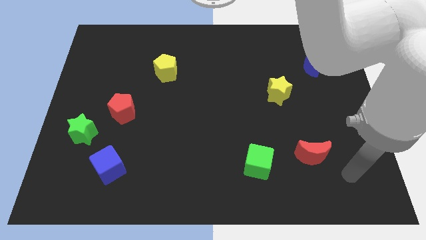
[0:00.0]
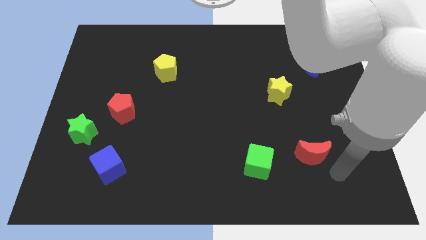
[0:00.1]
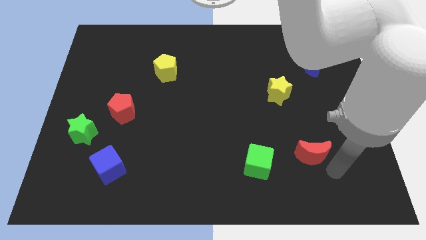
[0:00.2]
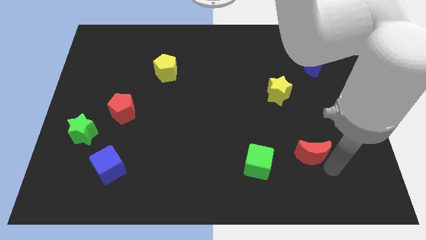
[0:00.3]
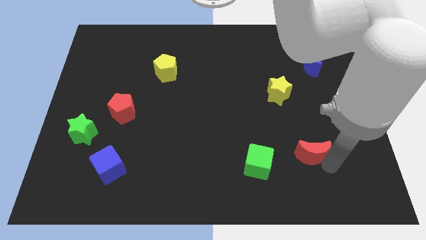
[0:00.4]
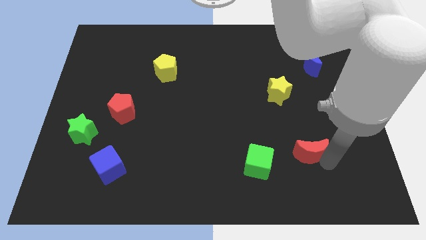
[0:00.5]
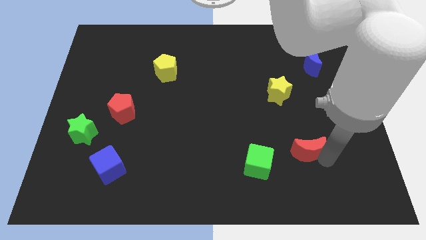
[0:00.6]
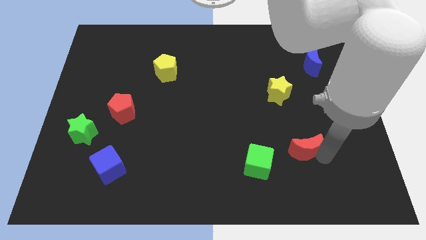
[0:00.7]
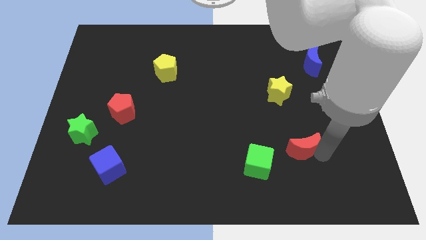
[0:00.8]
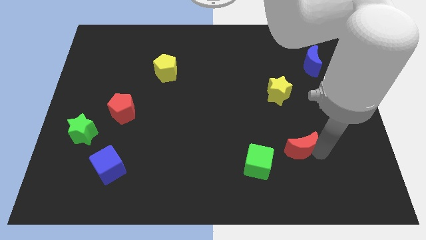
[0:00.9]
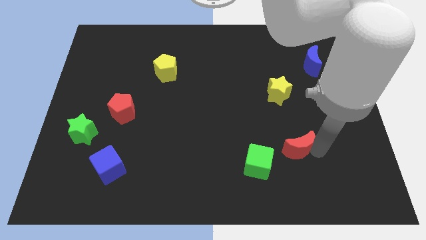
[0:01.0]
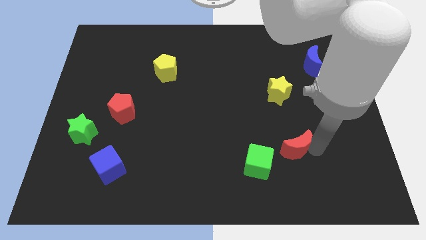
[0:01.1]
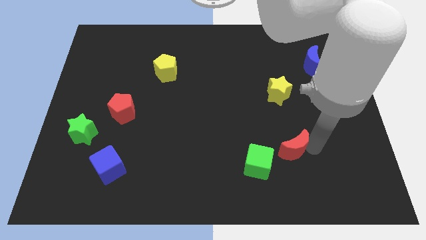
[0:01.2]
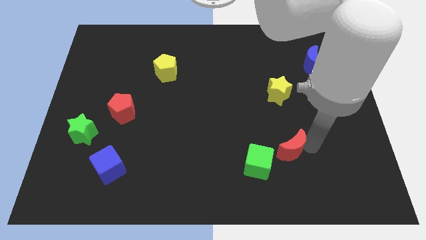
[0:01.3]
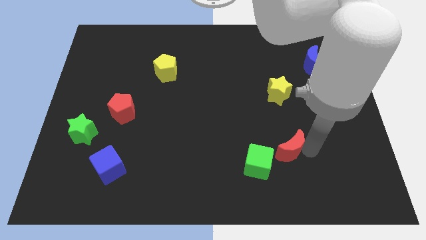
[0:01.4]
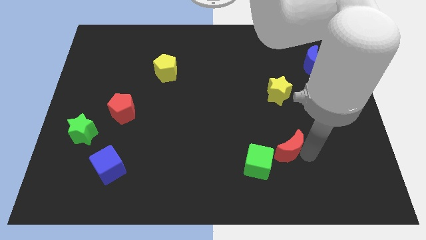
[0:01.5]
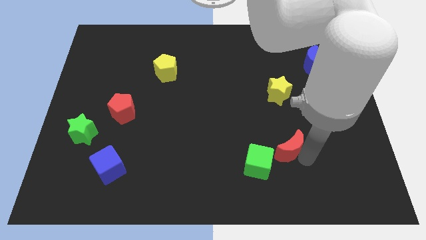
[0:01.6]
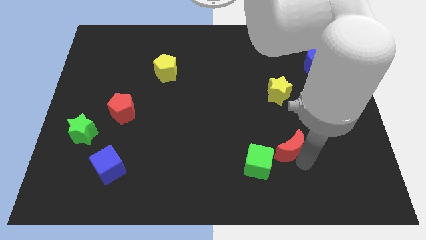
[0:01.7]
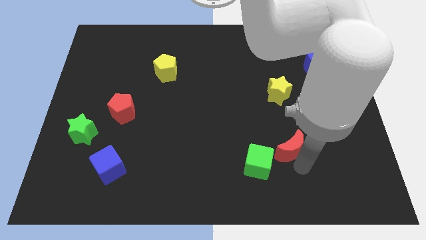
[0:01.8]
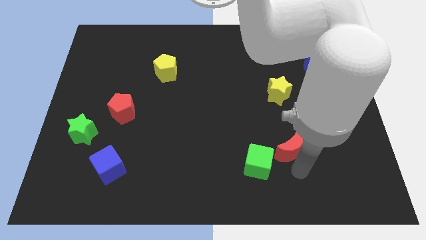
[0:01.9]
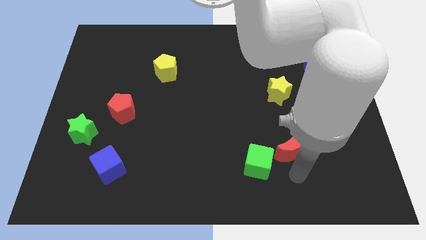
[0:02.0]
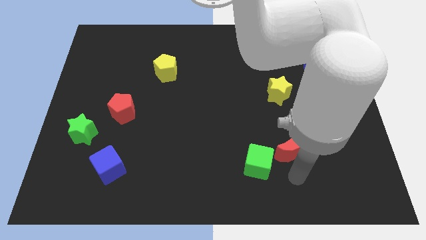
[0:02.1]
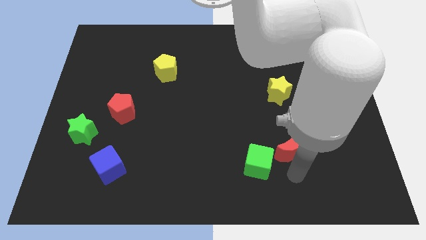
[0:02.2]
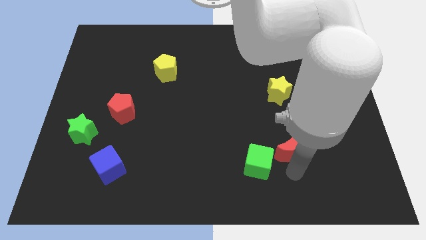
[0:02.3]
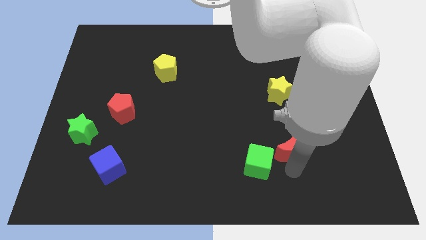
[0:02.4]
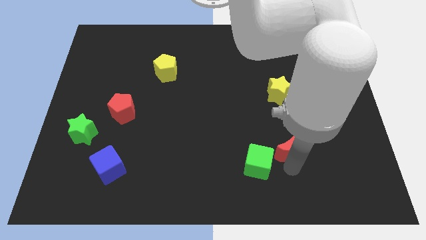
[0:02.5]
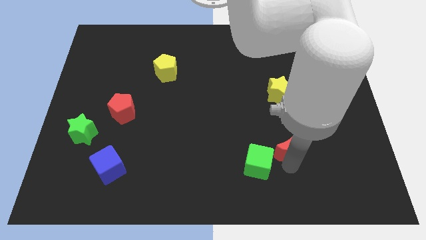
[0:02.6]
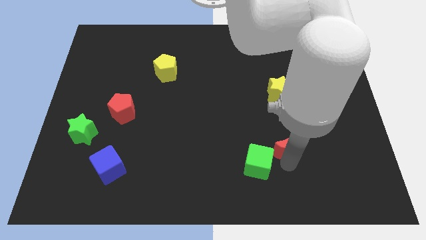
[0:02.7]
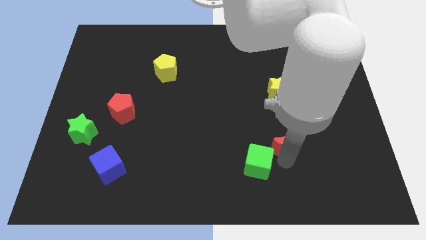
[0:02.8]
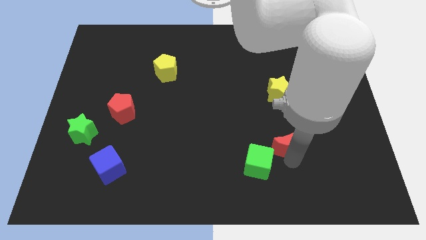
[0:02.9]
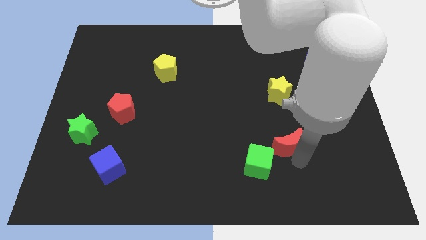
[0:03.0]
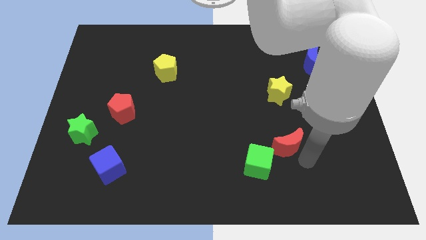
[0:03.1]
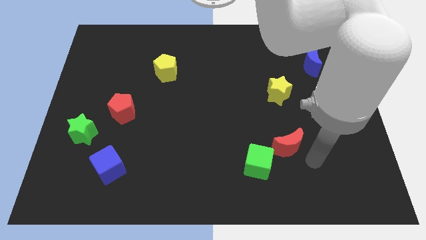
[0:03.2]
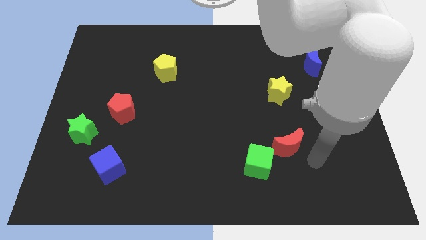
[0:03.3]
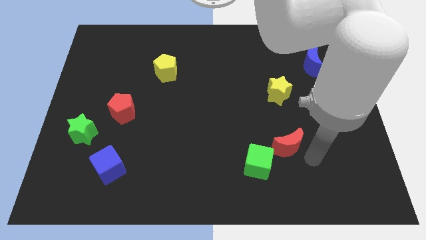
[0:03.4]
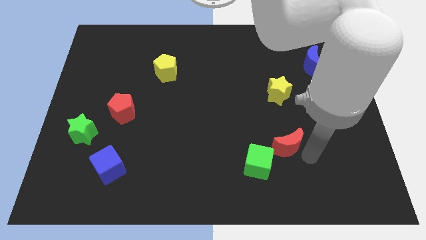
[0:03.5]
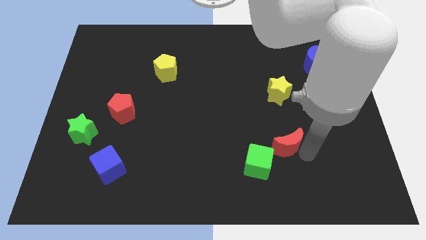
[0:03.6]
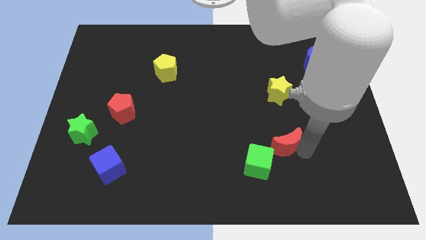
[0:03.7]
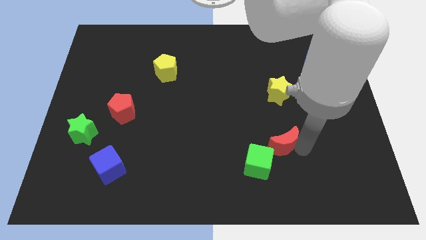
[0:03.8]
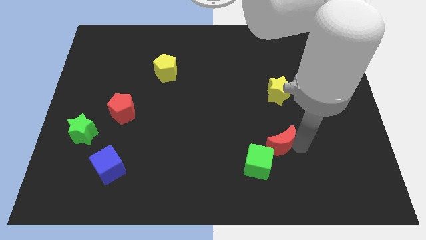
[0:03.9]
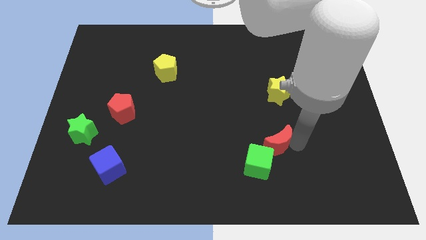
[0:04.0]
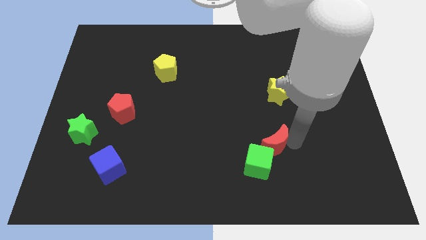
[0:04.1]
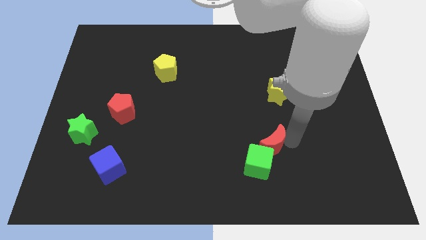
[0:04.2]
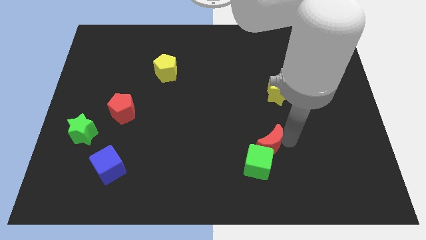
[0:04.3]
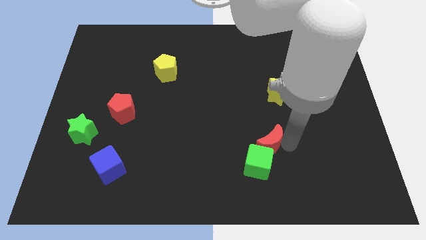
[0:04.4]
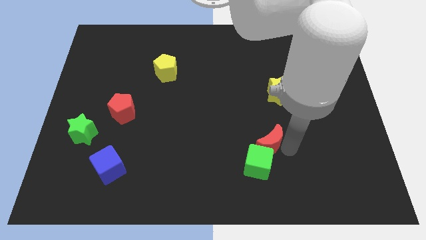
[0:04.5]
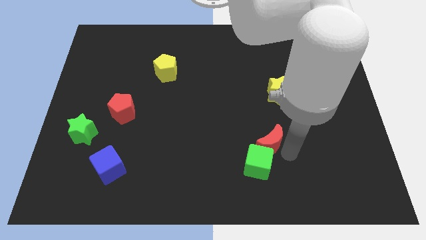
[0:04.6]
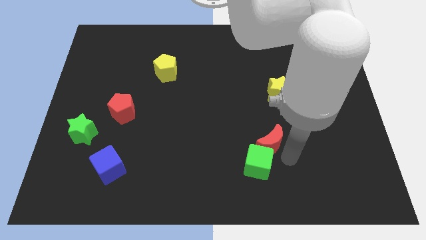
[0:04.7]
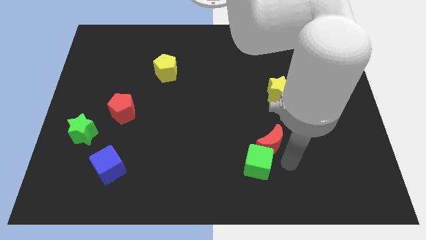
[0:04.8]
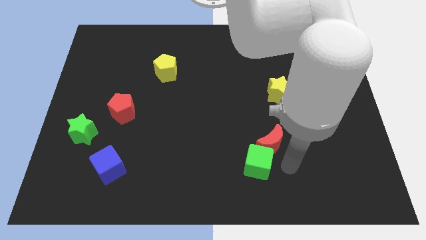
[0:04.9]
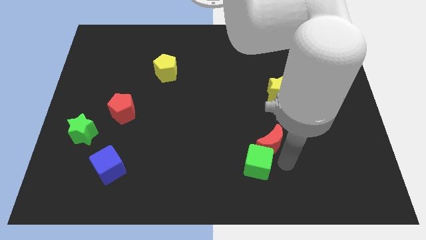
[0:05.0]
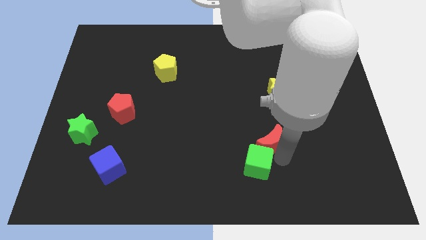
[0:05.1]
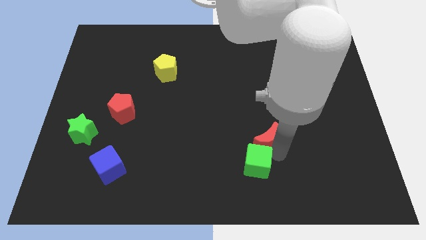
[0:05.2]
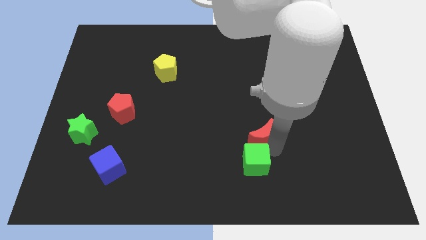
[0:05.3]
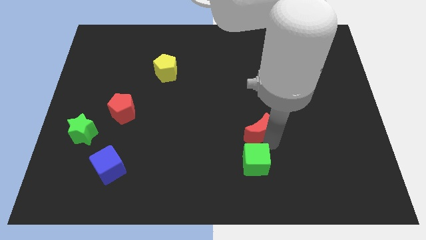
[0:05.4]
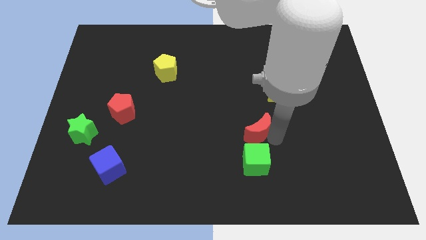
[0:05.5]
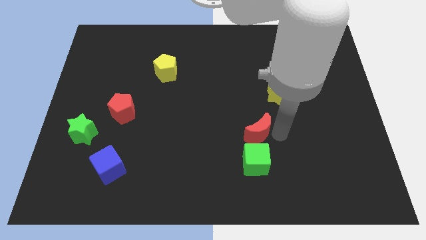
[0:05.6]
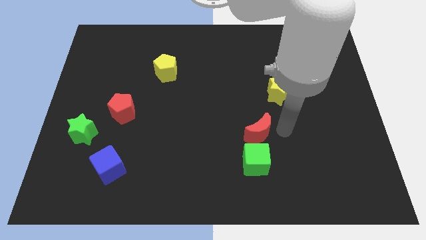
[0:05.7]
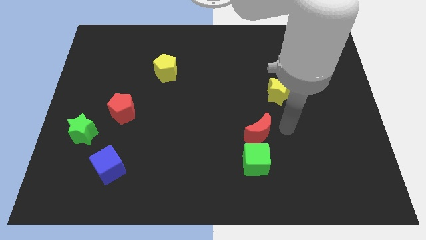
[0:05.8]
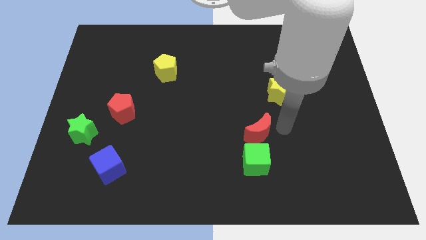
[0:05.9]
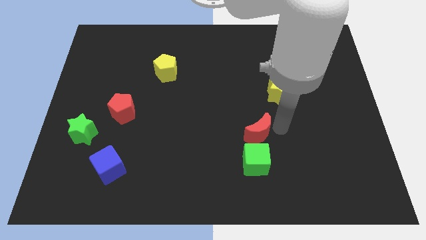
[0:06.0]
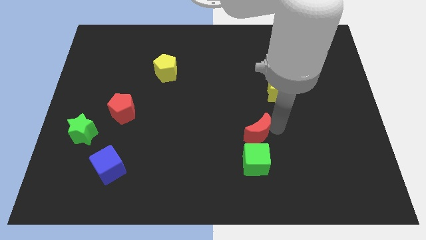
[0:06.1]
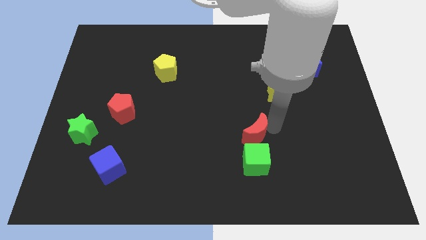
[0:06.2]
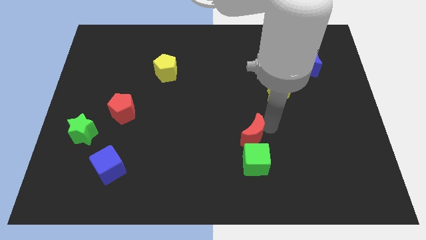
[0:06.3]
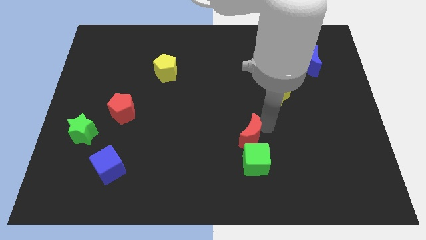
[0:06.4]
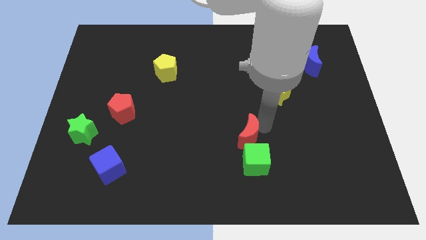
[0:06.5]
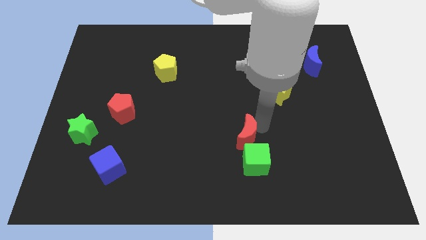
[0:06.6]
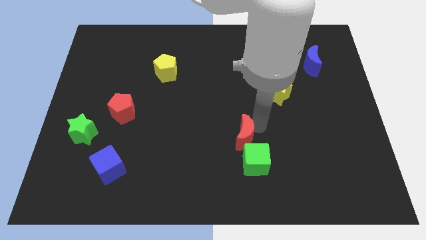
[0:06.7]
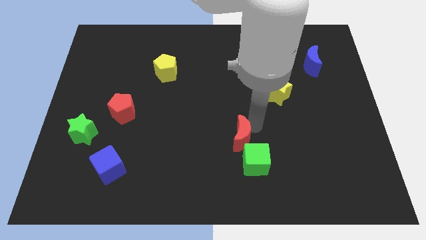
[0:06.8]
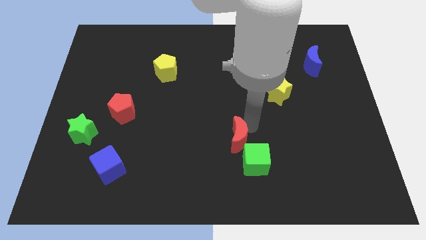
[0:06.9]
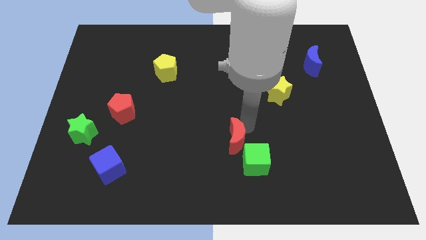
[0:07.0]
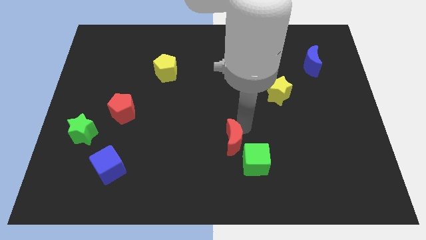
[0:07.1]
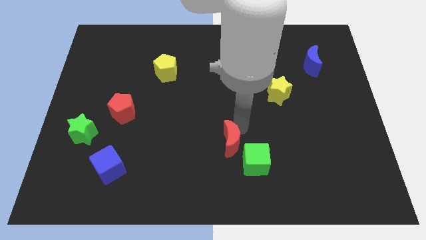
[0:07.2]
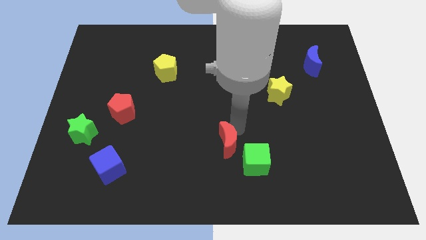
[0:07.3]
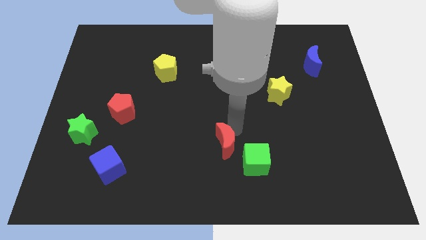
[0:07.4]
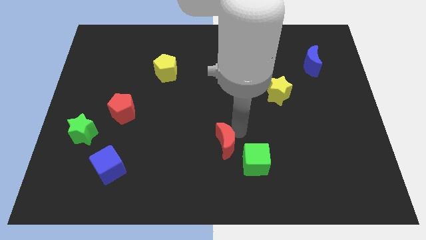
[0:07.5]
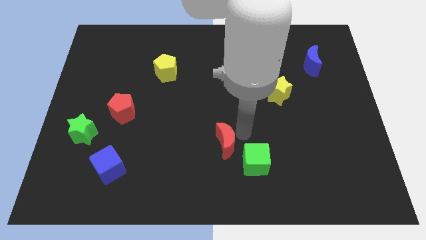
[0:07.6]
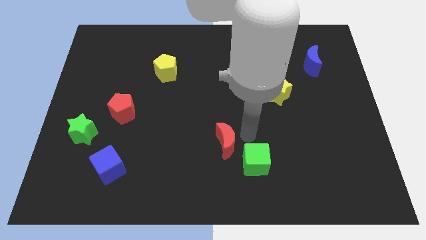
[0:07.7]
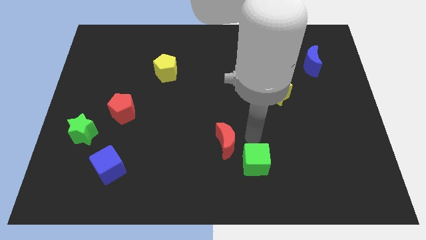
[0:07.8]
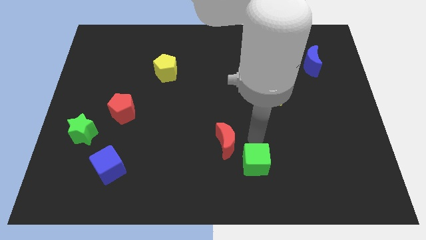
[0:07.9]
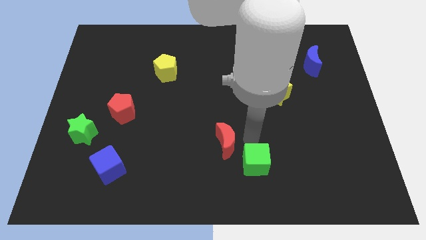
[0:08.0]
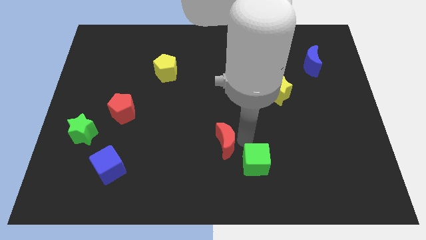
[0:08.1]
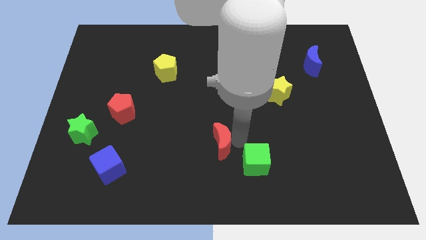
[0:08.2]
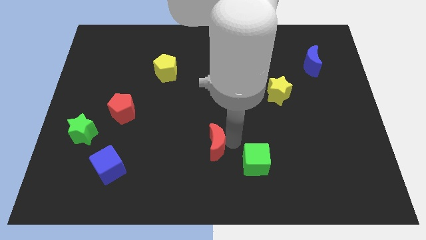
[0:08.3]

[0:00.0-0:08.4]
move the red moon to the left
